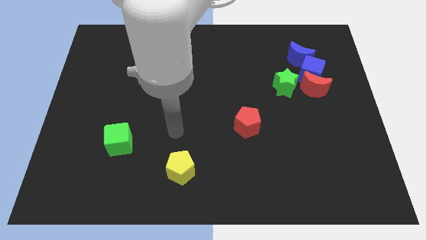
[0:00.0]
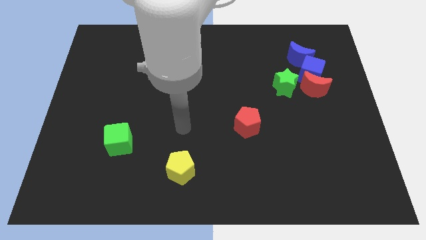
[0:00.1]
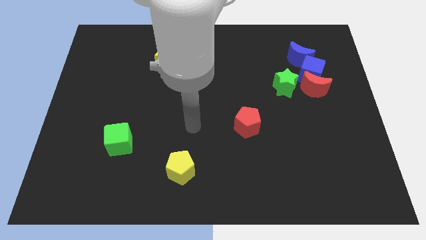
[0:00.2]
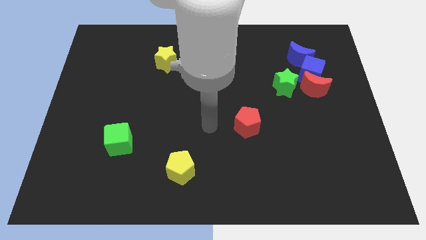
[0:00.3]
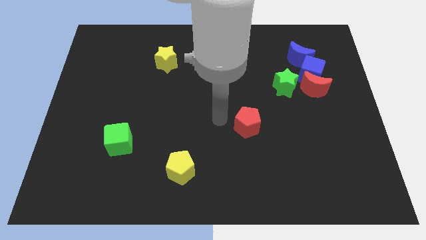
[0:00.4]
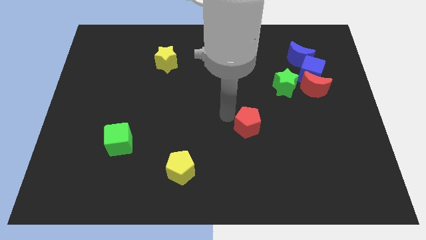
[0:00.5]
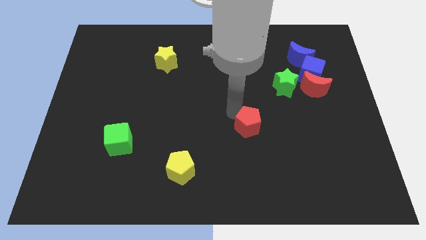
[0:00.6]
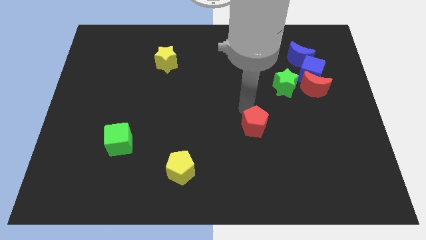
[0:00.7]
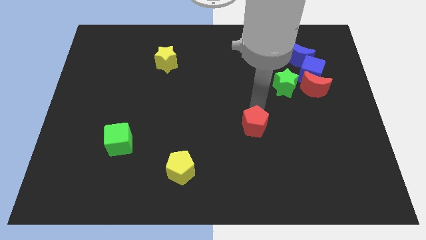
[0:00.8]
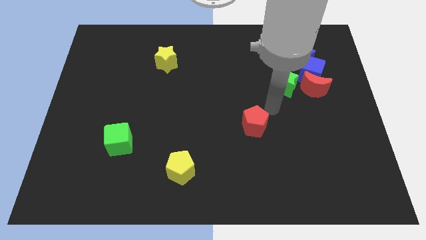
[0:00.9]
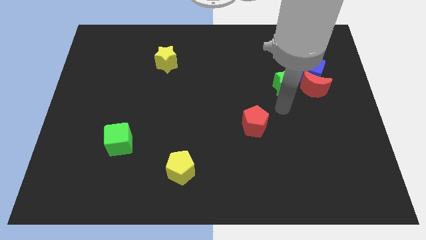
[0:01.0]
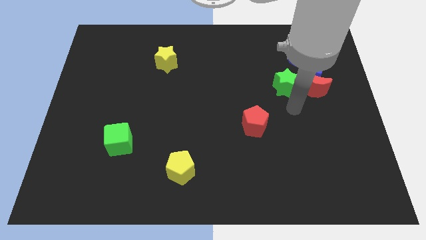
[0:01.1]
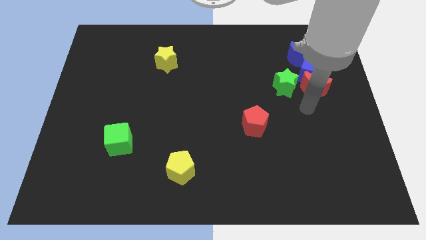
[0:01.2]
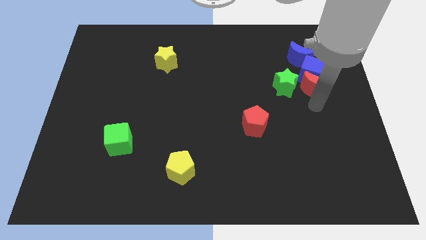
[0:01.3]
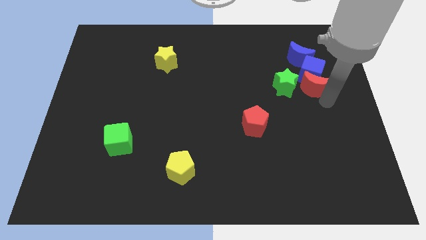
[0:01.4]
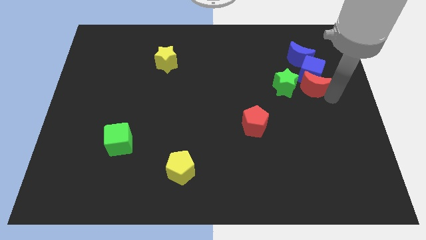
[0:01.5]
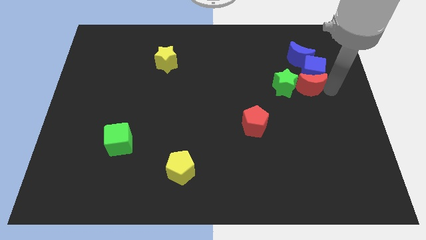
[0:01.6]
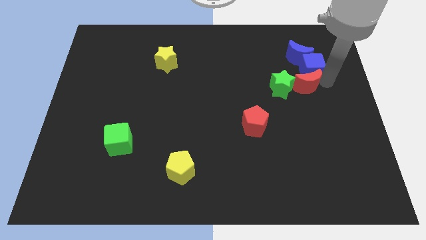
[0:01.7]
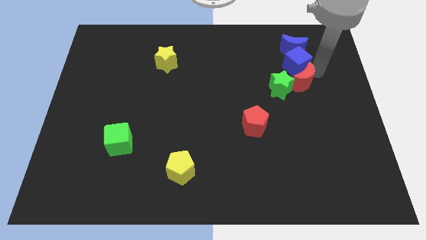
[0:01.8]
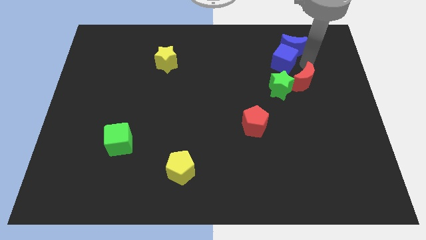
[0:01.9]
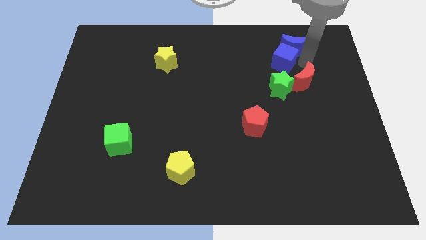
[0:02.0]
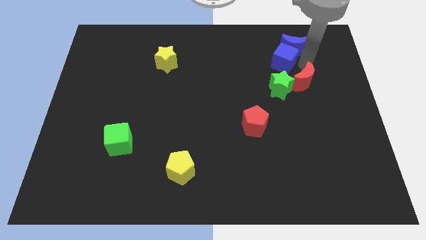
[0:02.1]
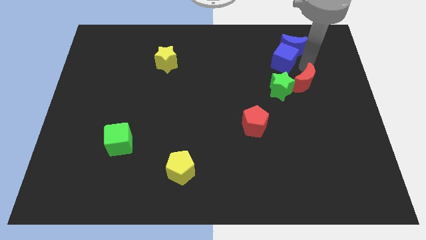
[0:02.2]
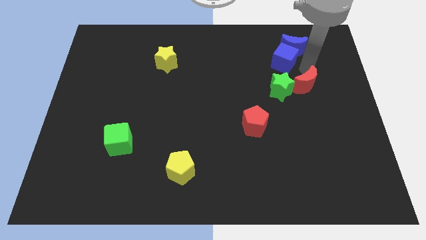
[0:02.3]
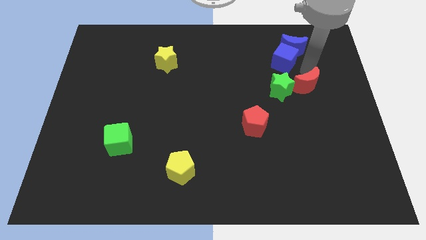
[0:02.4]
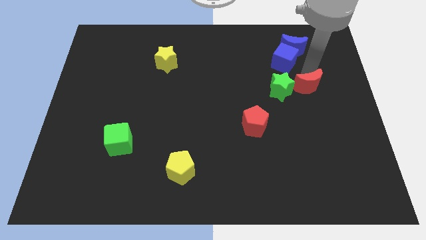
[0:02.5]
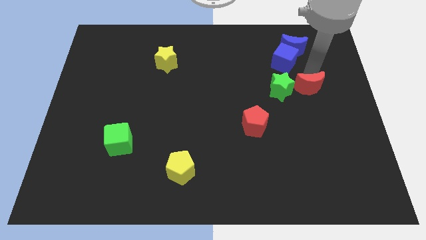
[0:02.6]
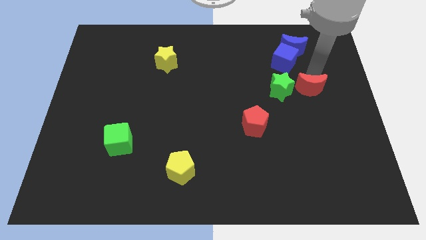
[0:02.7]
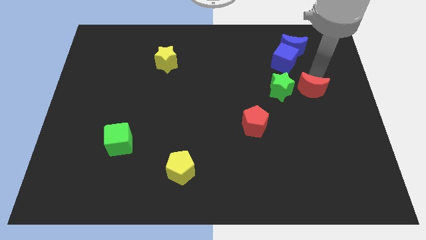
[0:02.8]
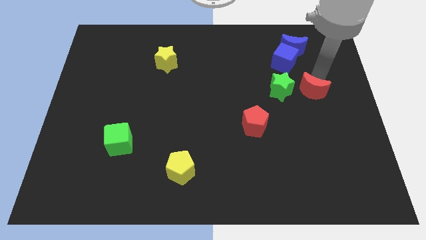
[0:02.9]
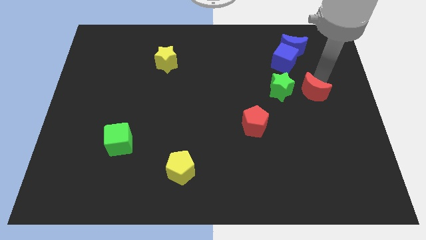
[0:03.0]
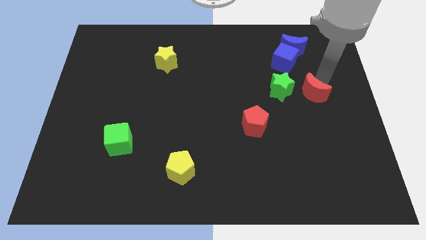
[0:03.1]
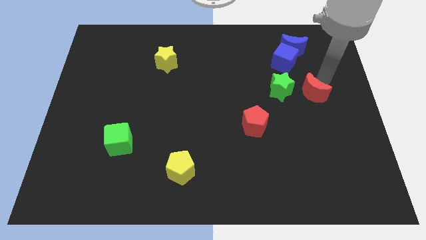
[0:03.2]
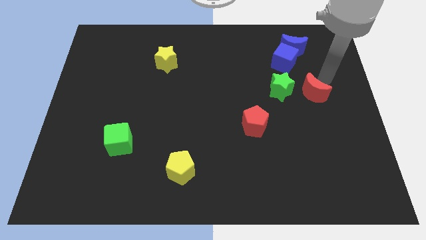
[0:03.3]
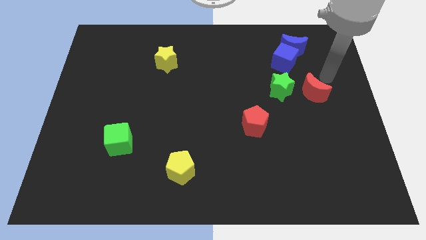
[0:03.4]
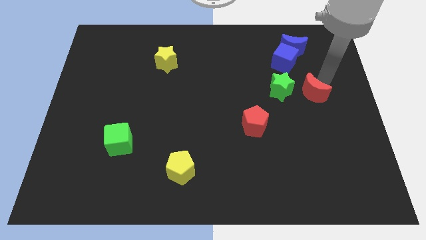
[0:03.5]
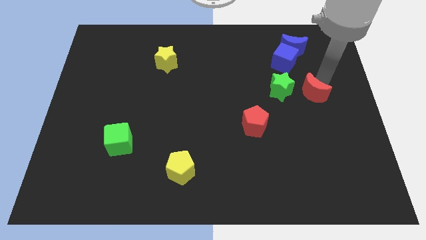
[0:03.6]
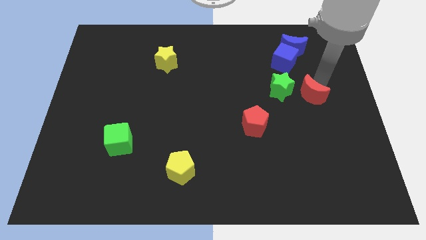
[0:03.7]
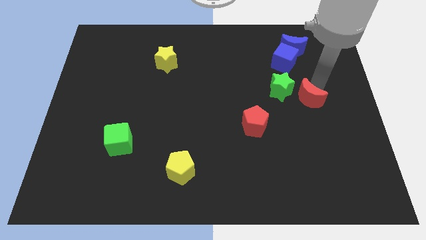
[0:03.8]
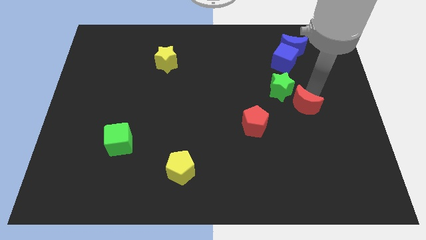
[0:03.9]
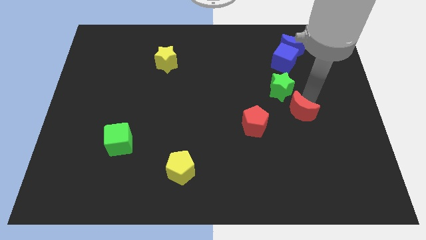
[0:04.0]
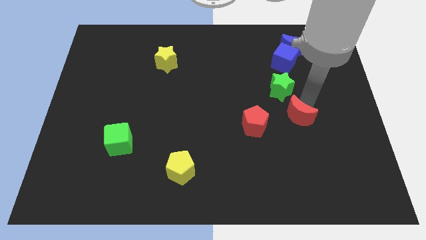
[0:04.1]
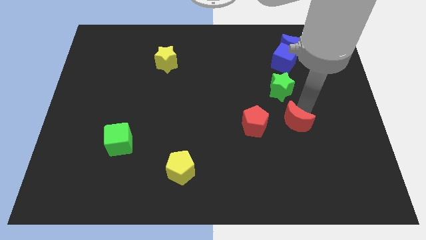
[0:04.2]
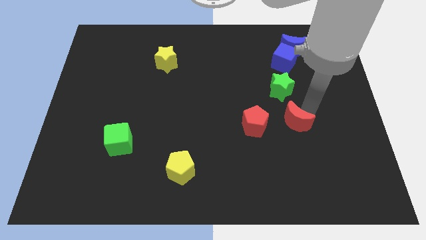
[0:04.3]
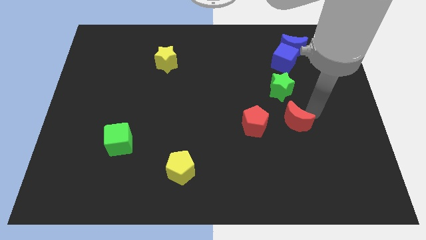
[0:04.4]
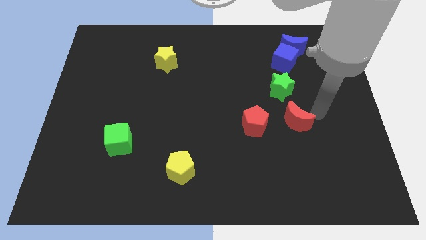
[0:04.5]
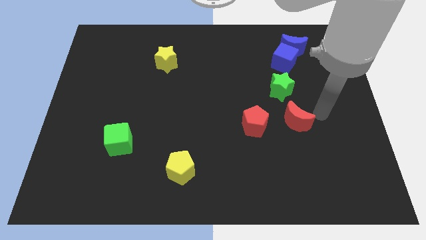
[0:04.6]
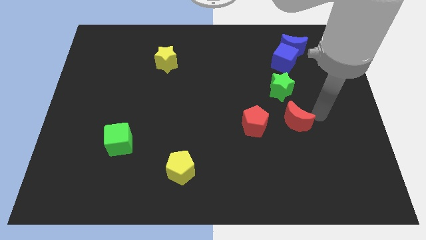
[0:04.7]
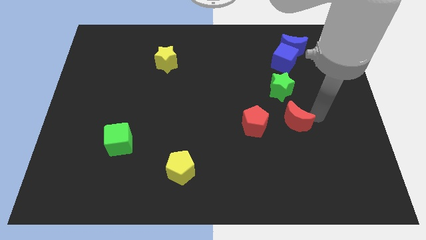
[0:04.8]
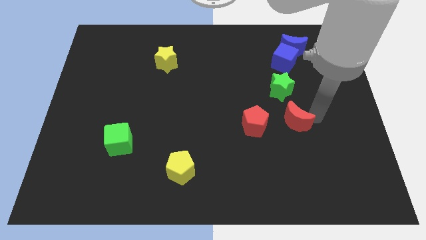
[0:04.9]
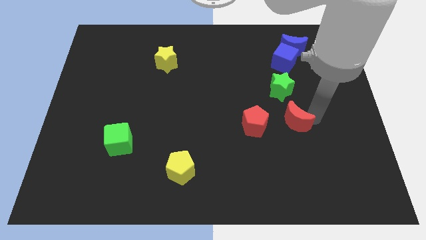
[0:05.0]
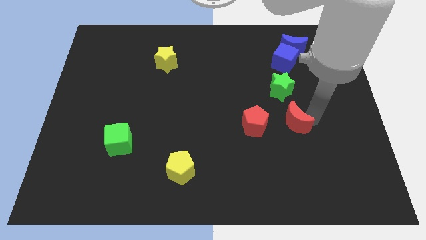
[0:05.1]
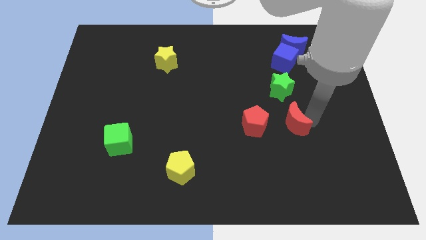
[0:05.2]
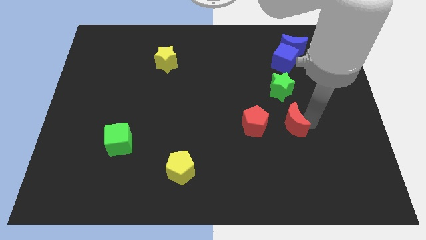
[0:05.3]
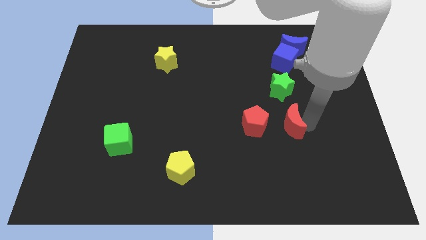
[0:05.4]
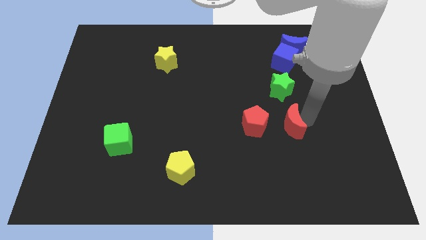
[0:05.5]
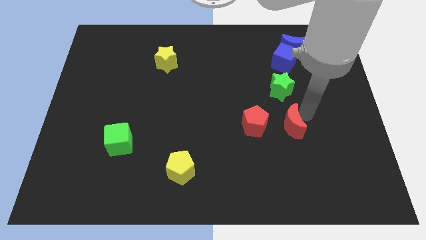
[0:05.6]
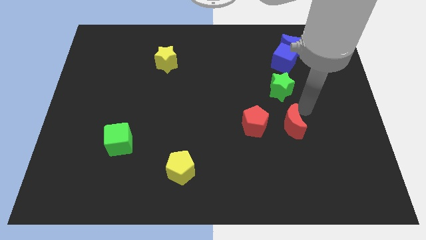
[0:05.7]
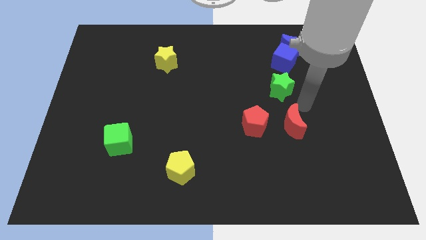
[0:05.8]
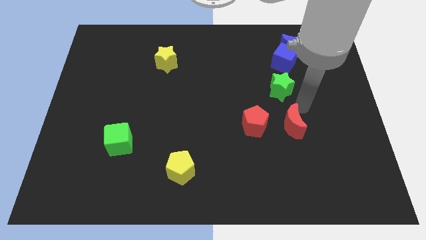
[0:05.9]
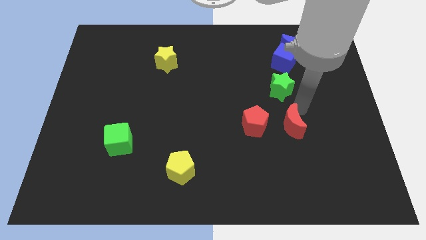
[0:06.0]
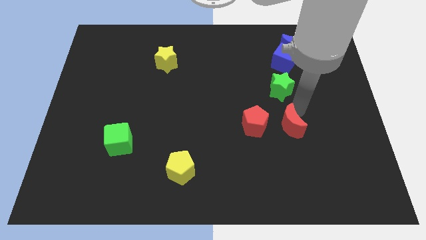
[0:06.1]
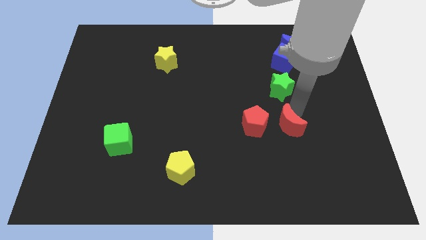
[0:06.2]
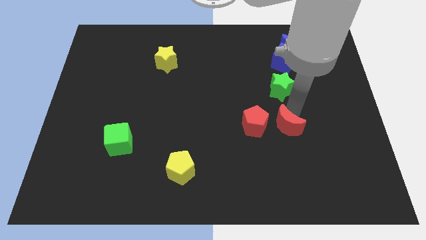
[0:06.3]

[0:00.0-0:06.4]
put the red moon diagonally down and to the right of the red pentagon
